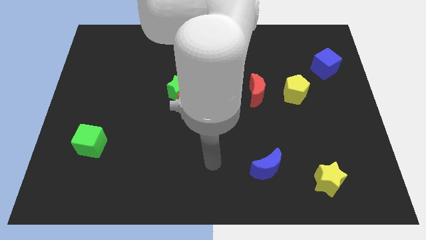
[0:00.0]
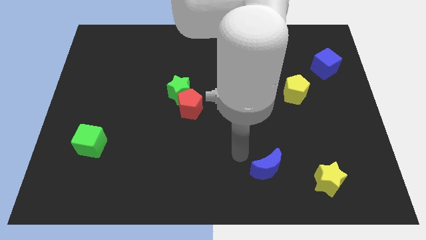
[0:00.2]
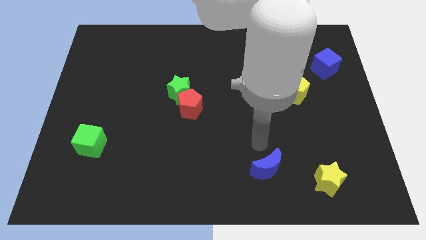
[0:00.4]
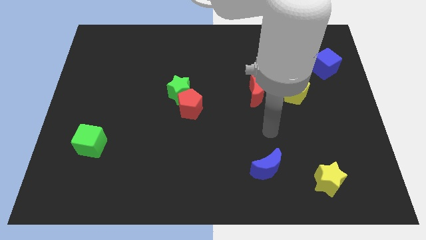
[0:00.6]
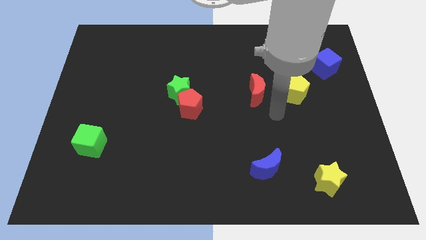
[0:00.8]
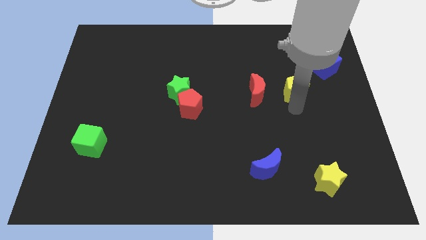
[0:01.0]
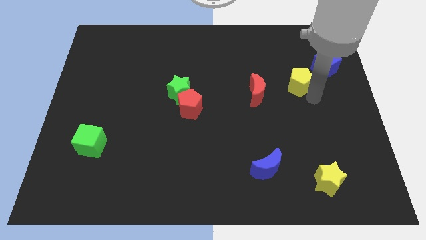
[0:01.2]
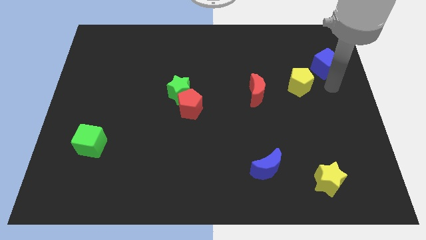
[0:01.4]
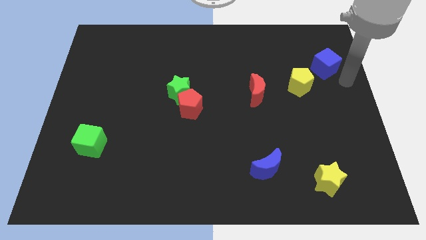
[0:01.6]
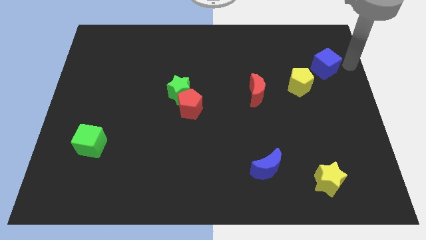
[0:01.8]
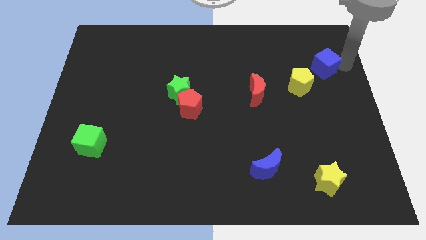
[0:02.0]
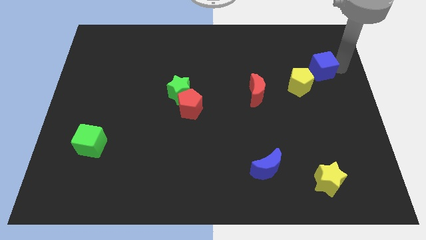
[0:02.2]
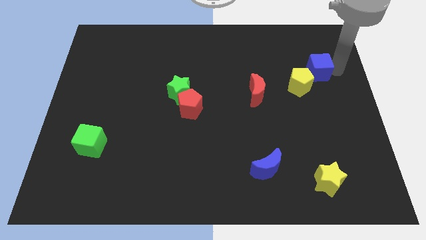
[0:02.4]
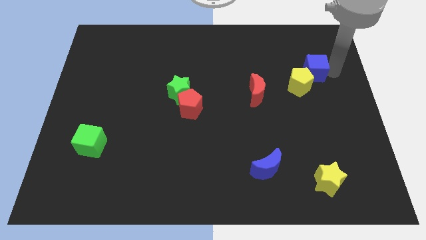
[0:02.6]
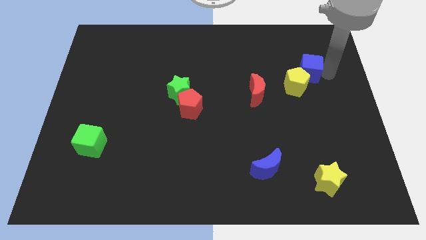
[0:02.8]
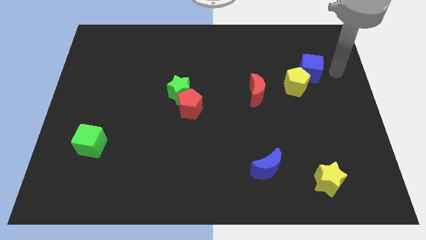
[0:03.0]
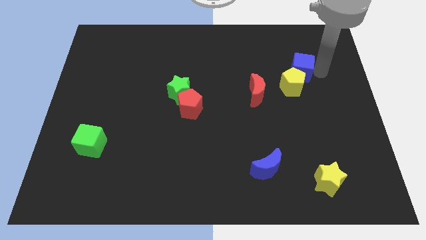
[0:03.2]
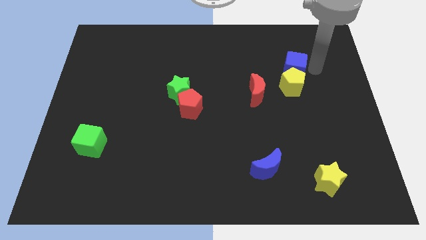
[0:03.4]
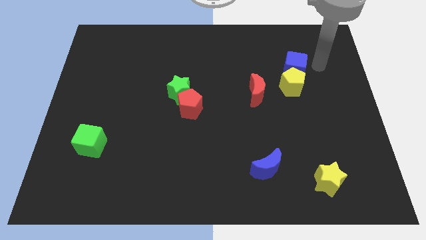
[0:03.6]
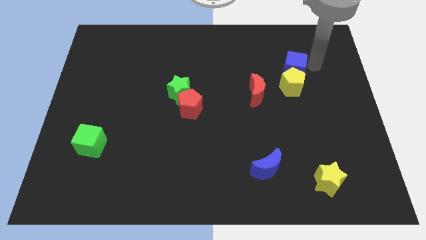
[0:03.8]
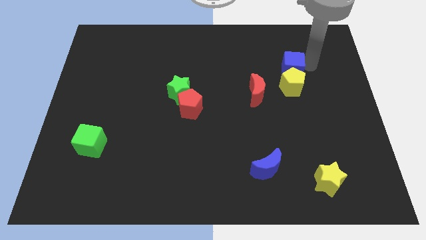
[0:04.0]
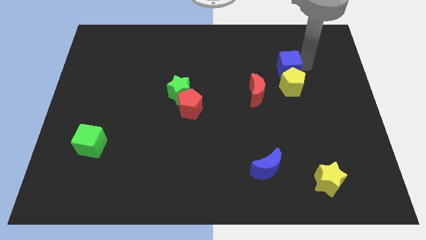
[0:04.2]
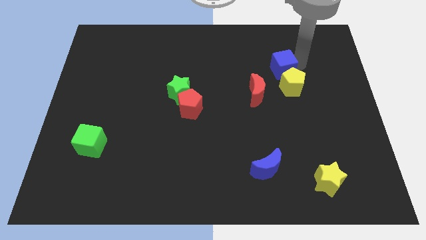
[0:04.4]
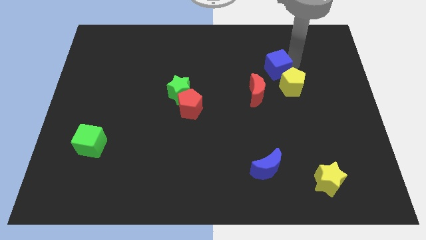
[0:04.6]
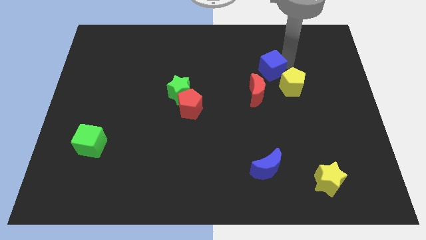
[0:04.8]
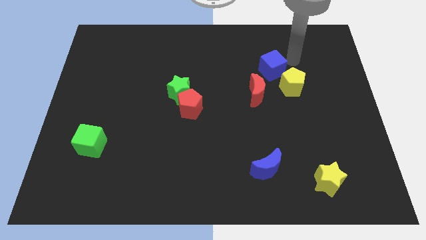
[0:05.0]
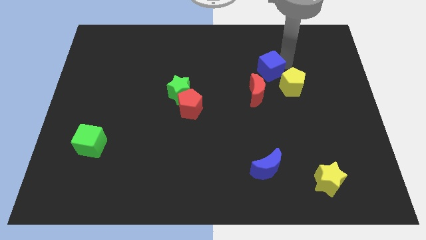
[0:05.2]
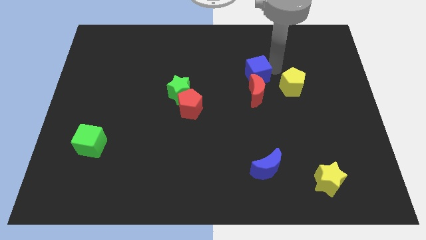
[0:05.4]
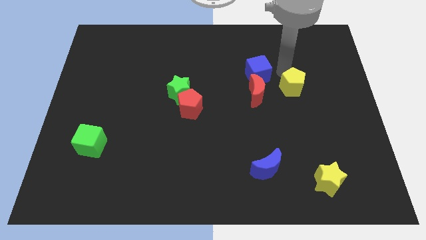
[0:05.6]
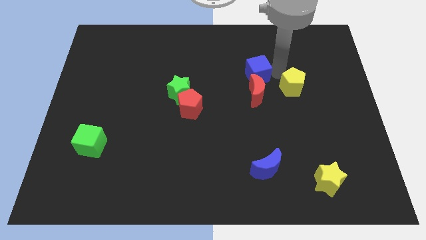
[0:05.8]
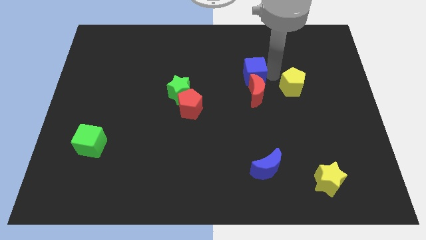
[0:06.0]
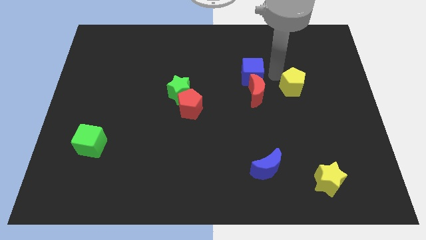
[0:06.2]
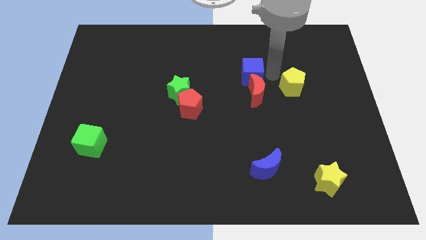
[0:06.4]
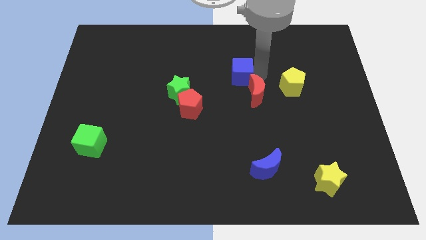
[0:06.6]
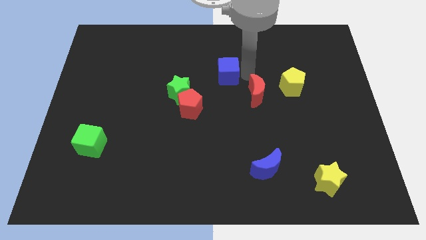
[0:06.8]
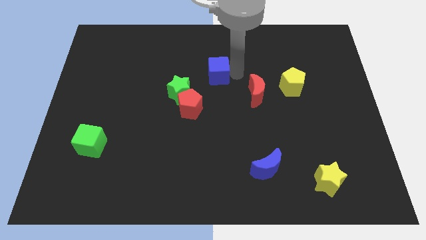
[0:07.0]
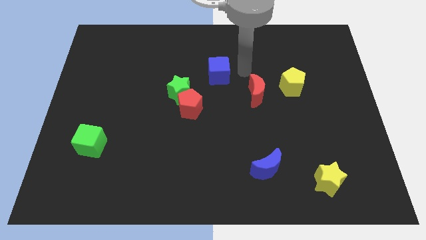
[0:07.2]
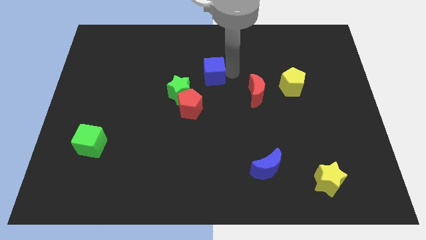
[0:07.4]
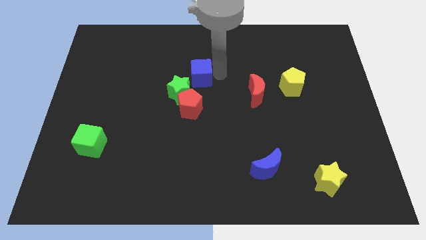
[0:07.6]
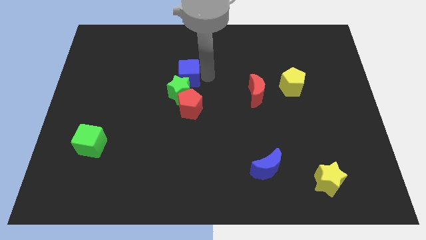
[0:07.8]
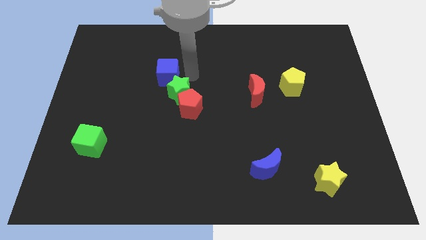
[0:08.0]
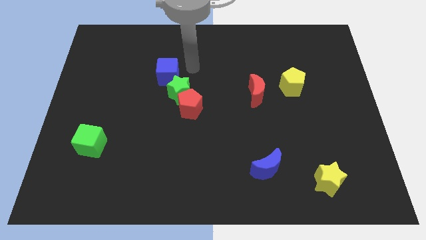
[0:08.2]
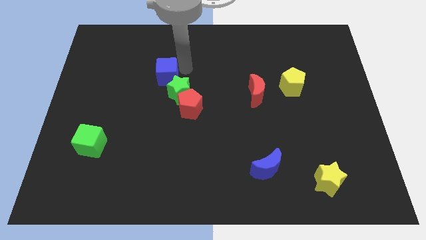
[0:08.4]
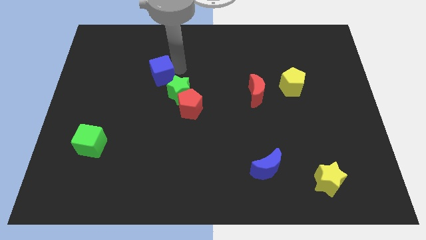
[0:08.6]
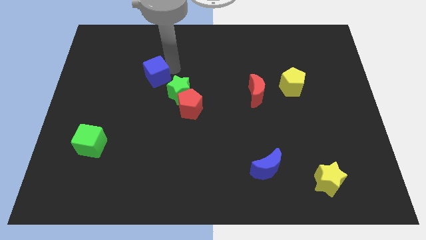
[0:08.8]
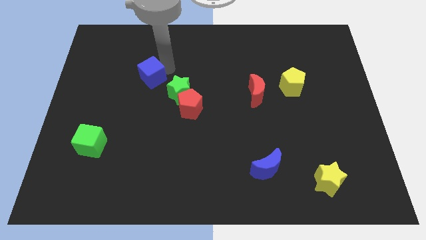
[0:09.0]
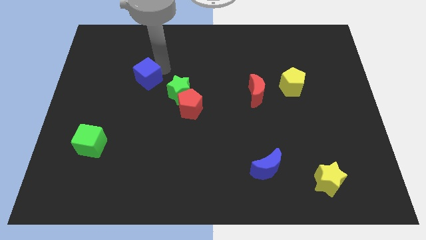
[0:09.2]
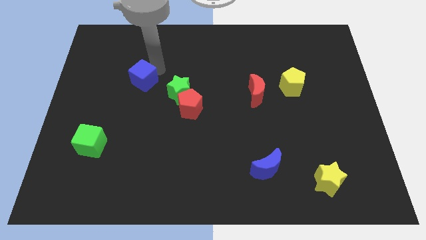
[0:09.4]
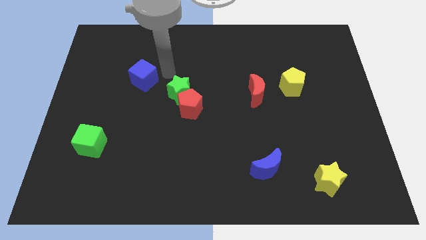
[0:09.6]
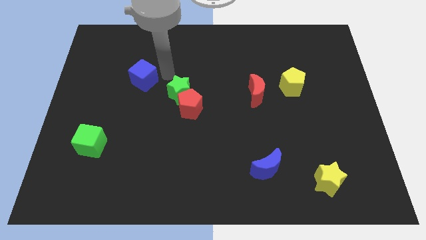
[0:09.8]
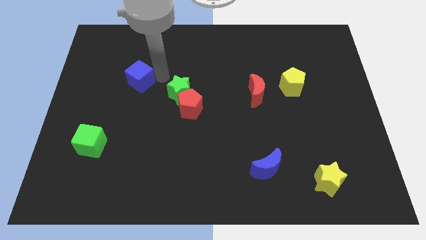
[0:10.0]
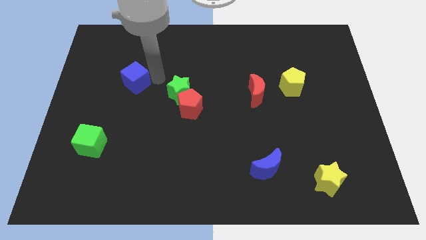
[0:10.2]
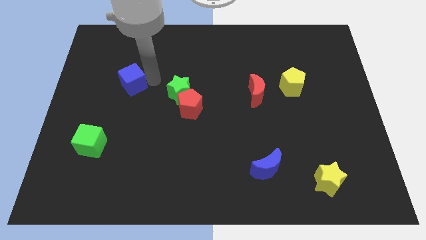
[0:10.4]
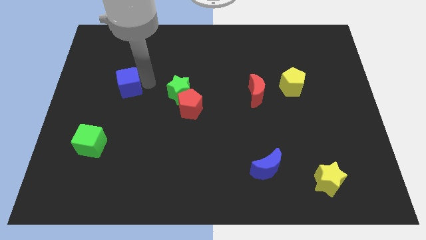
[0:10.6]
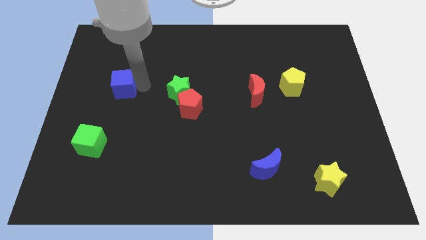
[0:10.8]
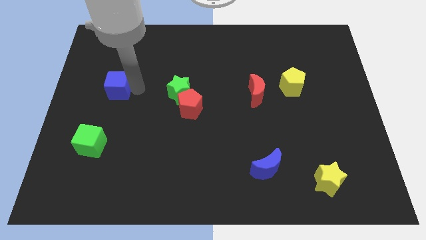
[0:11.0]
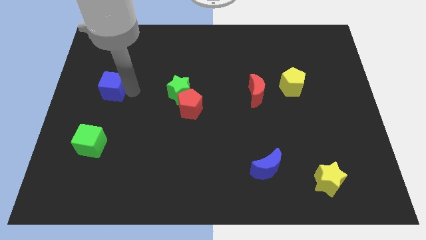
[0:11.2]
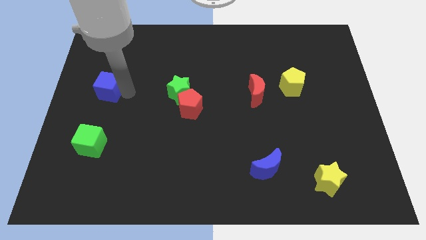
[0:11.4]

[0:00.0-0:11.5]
put the blue cube to the center left

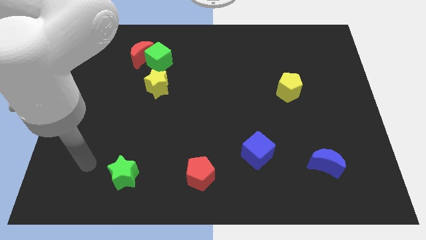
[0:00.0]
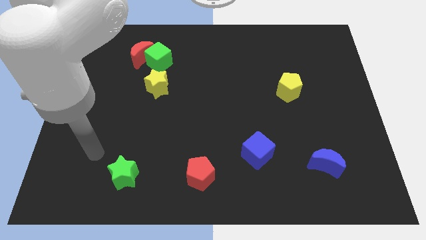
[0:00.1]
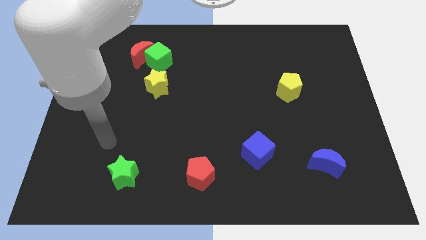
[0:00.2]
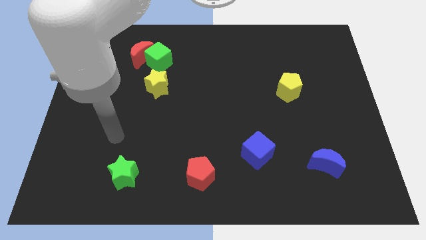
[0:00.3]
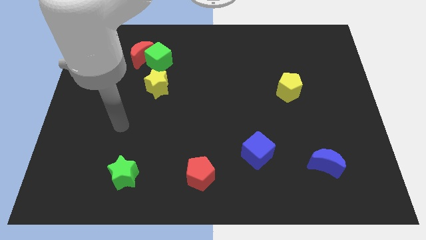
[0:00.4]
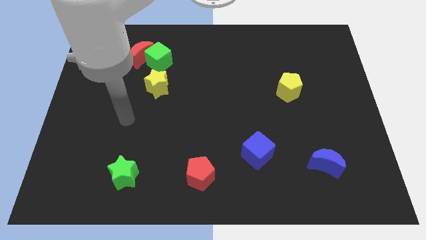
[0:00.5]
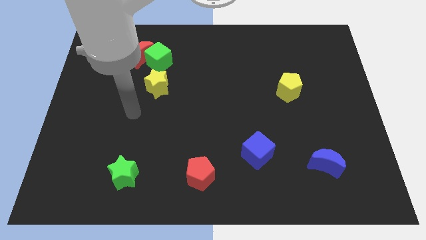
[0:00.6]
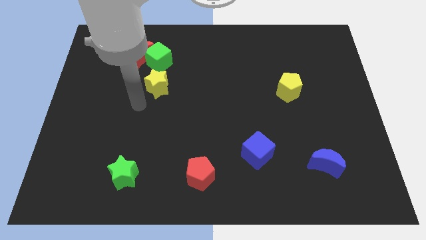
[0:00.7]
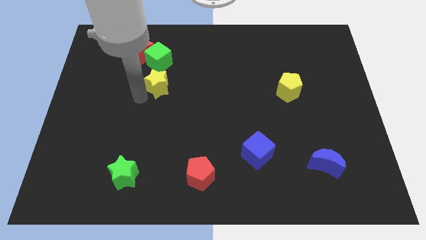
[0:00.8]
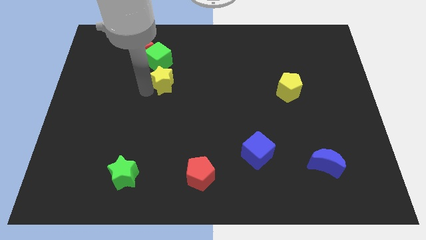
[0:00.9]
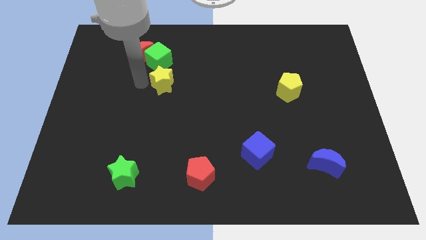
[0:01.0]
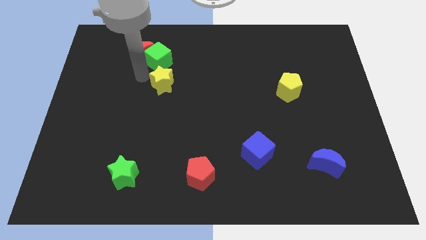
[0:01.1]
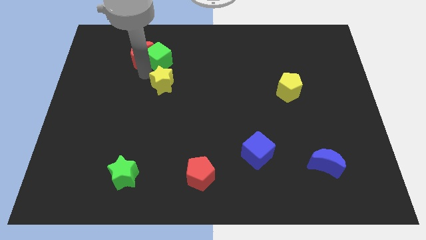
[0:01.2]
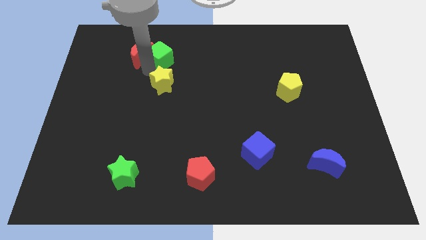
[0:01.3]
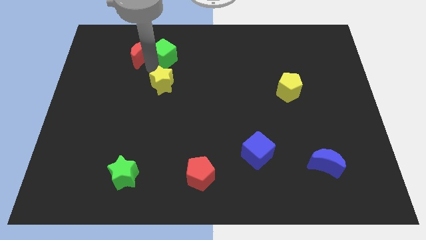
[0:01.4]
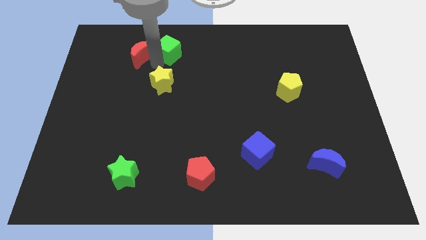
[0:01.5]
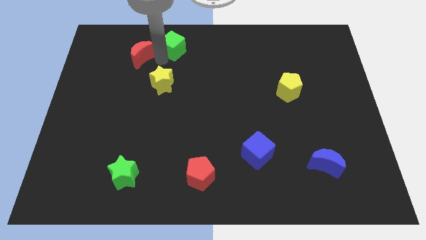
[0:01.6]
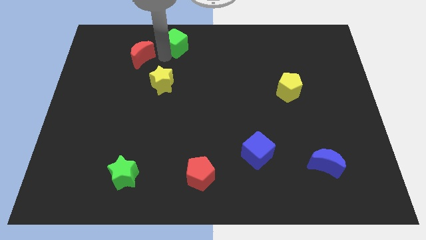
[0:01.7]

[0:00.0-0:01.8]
push the green cube to the towards your base
